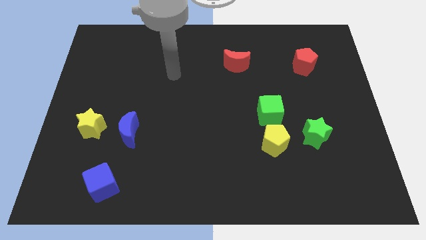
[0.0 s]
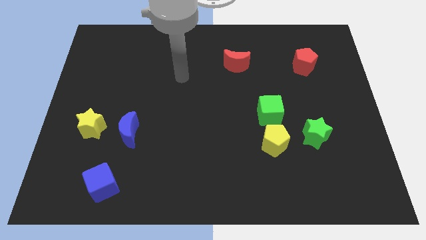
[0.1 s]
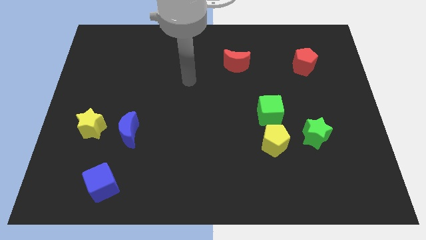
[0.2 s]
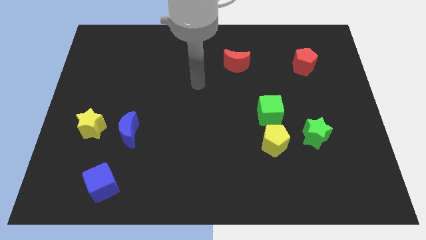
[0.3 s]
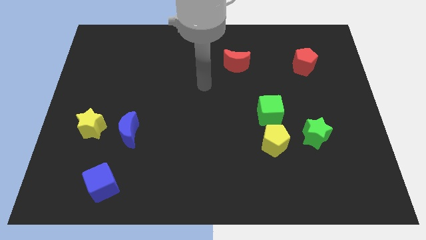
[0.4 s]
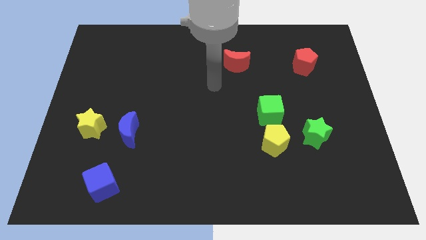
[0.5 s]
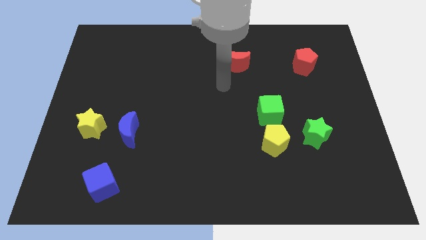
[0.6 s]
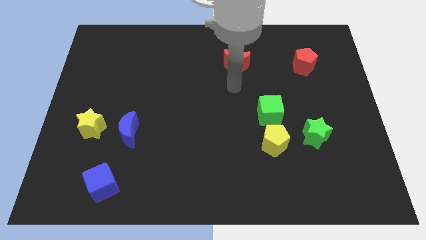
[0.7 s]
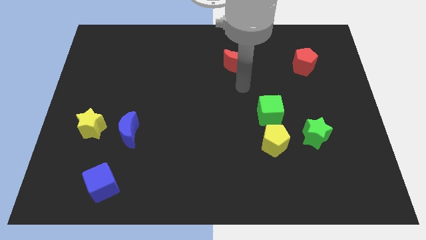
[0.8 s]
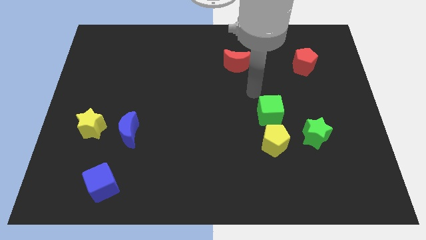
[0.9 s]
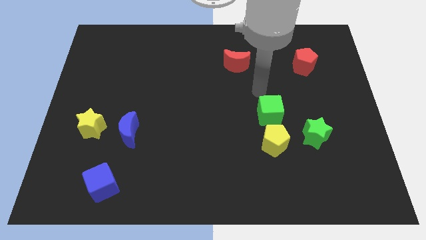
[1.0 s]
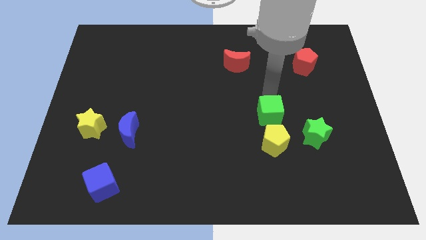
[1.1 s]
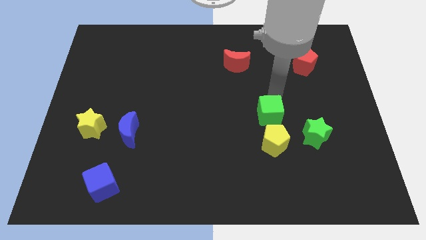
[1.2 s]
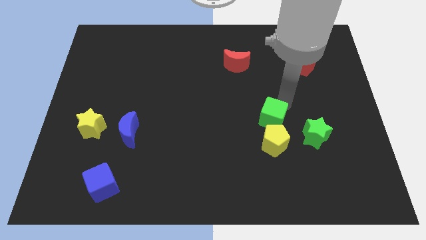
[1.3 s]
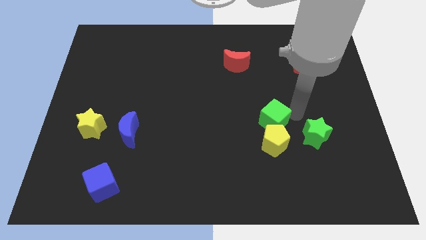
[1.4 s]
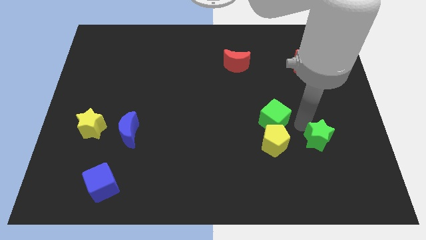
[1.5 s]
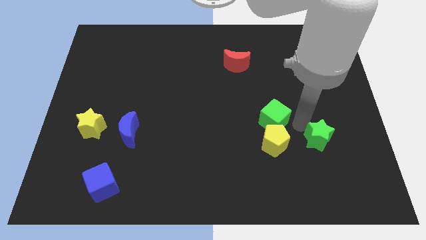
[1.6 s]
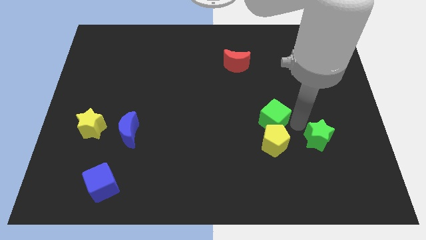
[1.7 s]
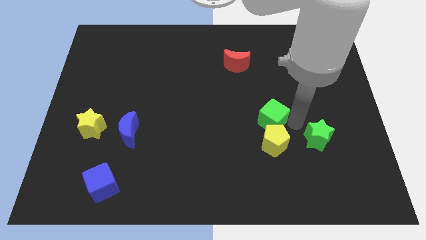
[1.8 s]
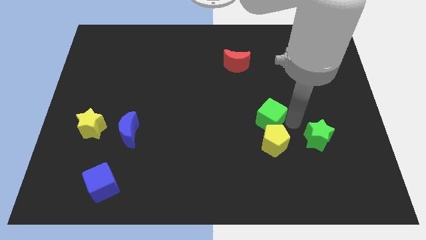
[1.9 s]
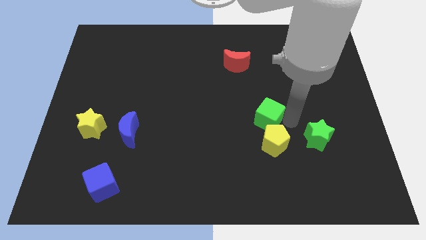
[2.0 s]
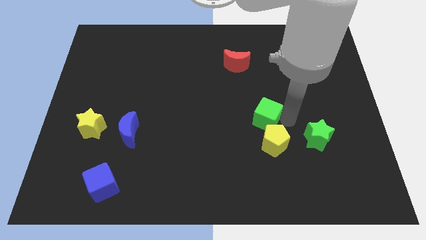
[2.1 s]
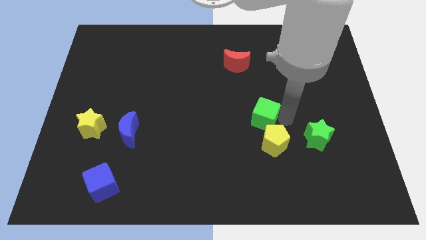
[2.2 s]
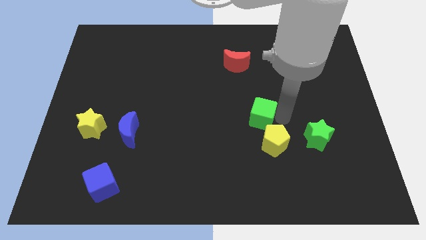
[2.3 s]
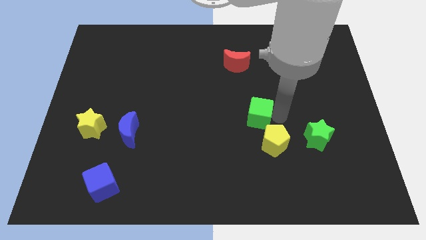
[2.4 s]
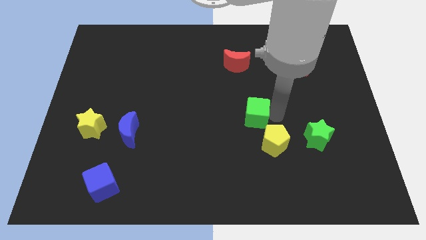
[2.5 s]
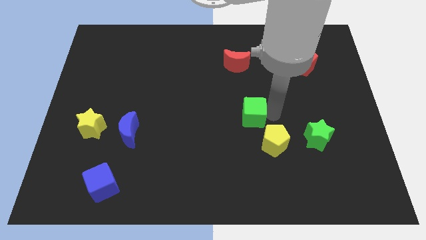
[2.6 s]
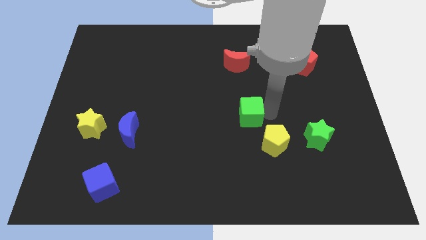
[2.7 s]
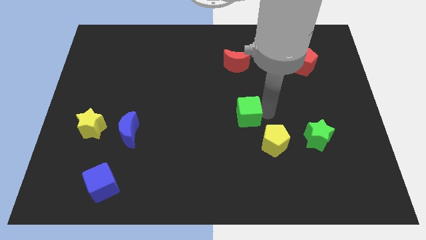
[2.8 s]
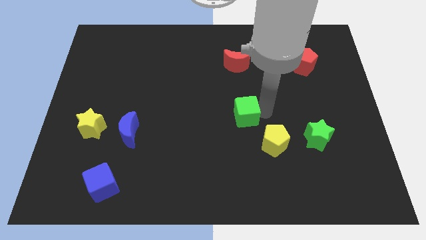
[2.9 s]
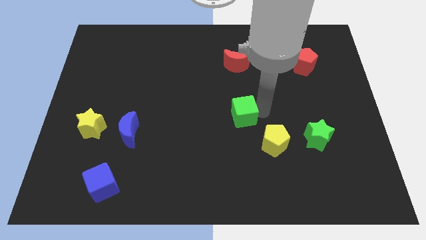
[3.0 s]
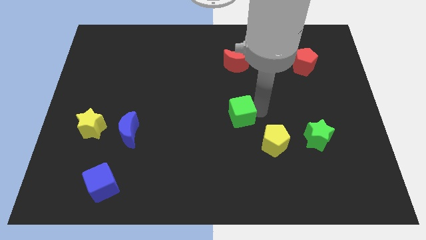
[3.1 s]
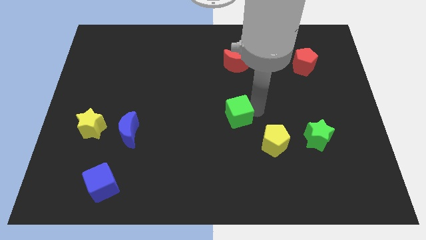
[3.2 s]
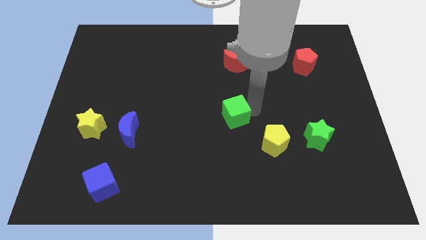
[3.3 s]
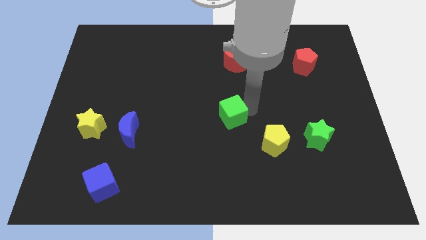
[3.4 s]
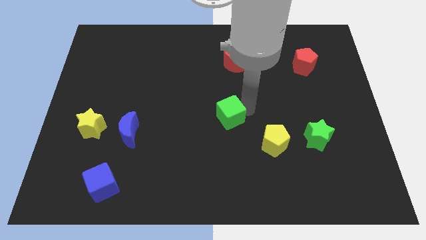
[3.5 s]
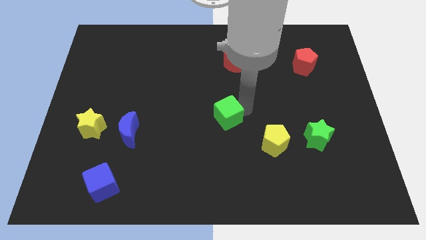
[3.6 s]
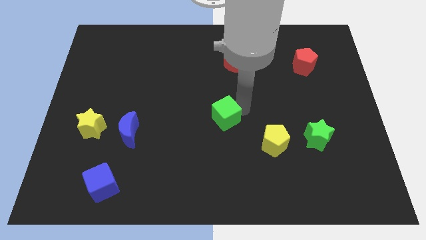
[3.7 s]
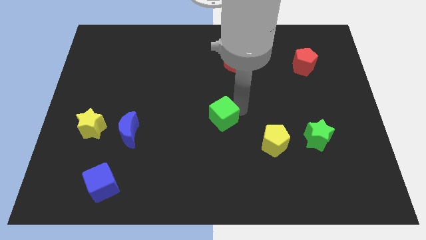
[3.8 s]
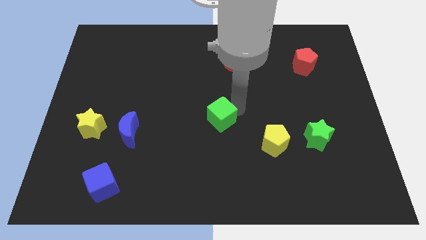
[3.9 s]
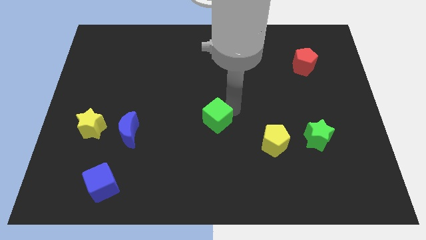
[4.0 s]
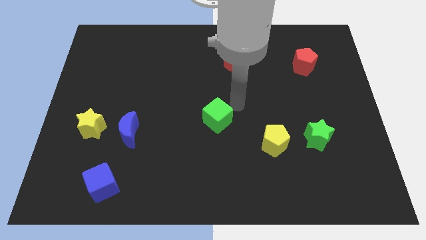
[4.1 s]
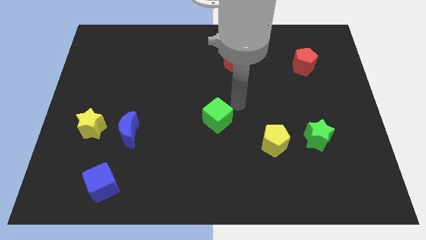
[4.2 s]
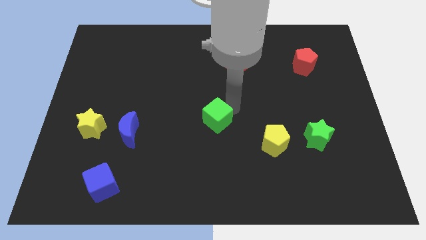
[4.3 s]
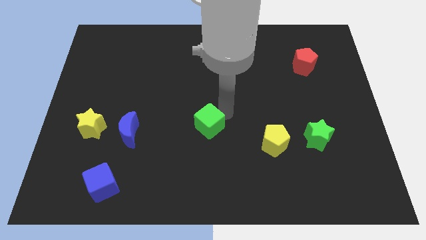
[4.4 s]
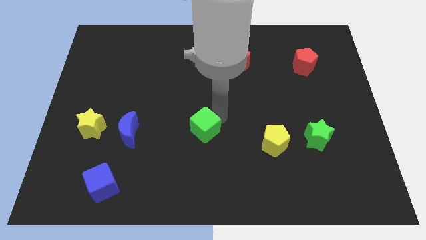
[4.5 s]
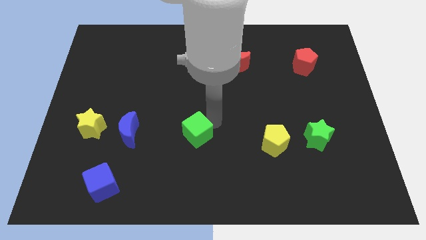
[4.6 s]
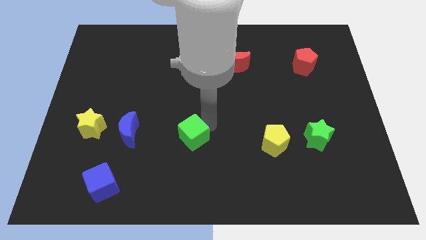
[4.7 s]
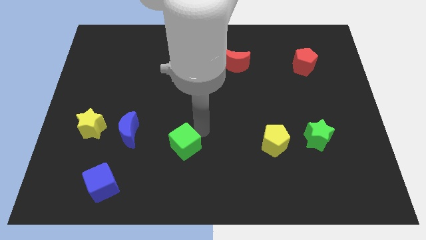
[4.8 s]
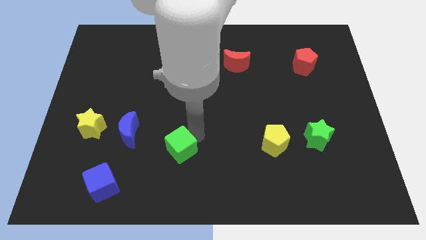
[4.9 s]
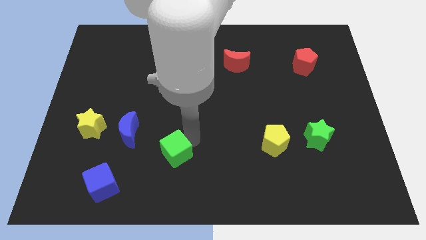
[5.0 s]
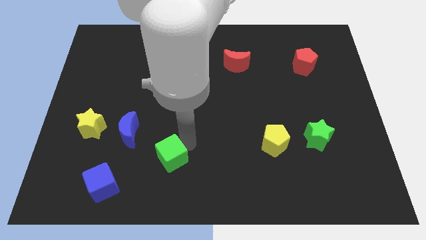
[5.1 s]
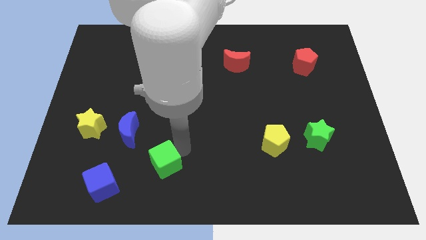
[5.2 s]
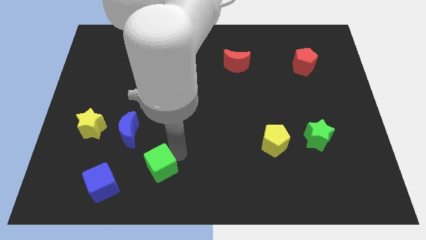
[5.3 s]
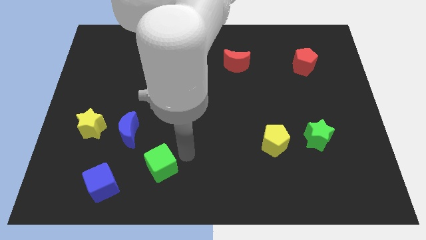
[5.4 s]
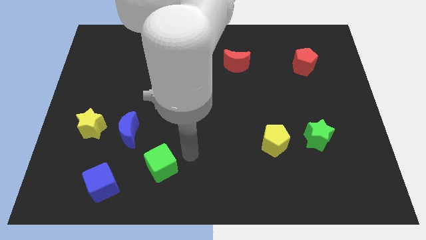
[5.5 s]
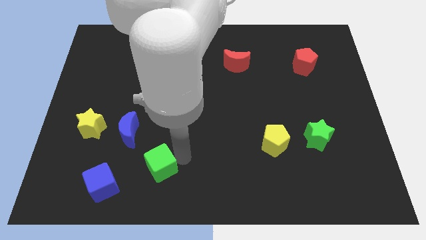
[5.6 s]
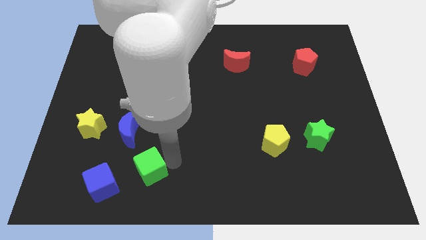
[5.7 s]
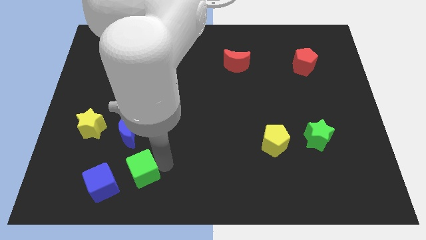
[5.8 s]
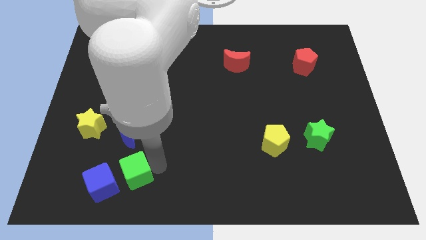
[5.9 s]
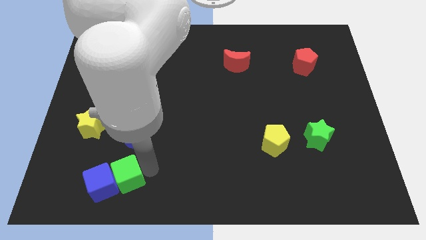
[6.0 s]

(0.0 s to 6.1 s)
move the green cube next to the blue cube

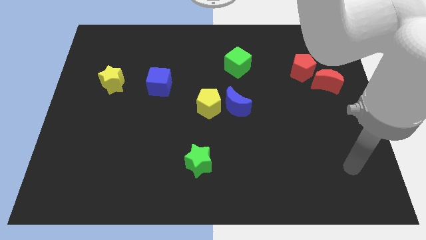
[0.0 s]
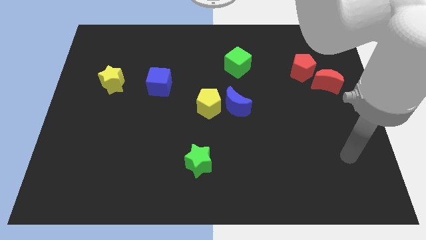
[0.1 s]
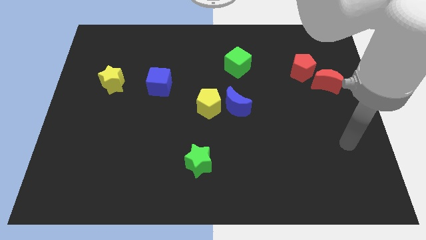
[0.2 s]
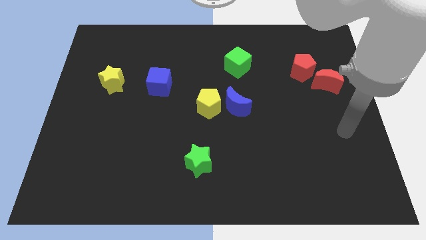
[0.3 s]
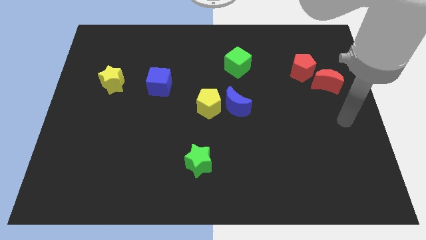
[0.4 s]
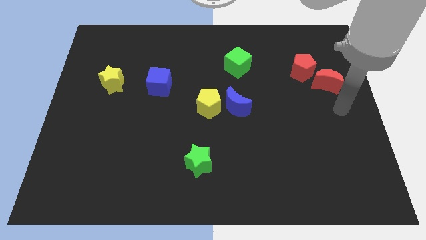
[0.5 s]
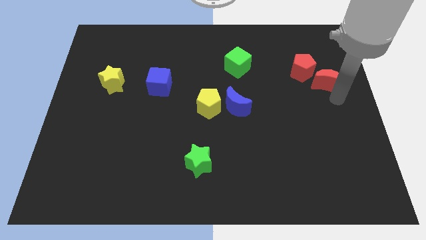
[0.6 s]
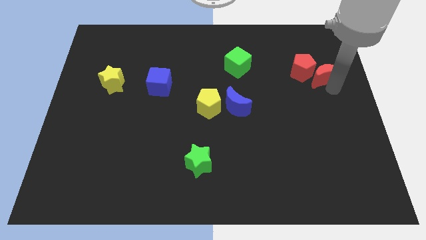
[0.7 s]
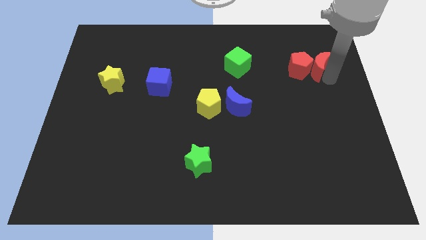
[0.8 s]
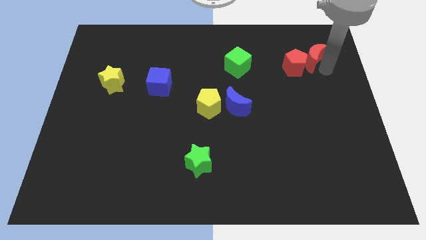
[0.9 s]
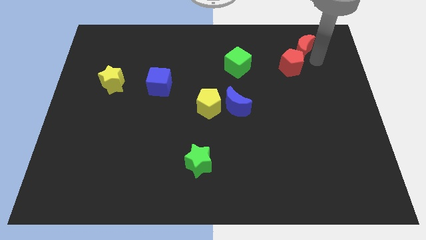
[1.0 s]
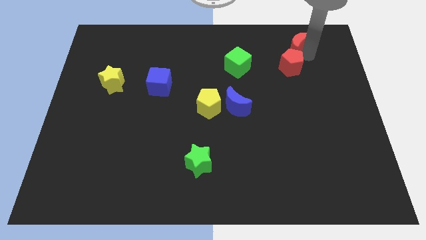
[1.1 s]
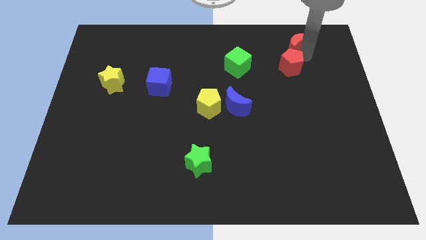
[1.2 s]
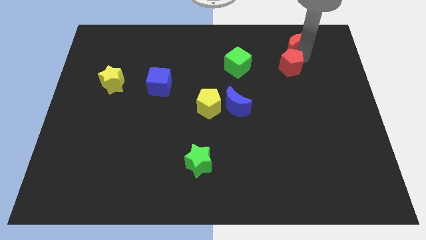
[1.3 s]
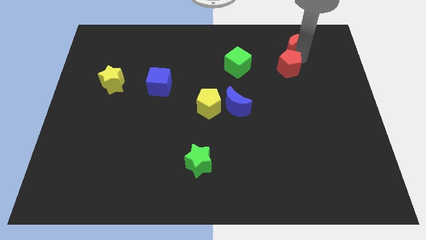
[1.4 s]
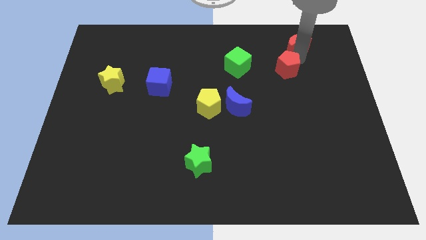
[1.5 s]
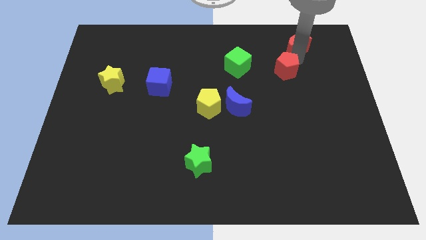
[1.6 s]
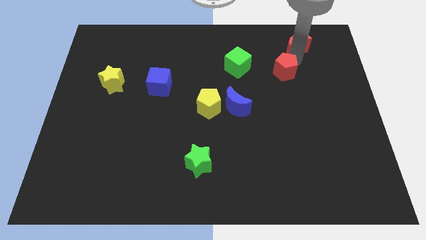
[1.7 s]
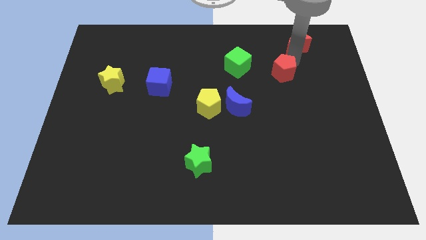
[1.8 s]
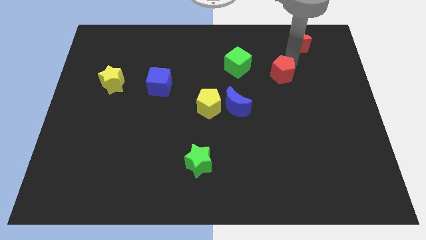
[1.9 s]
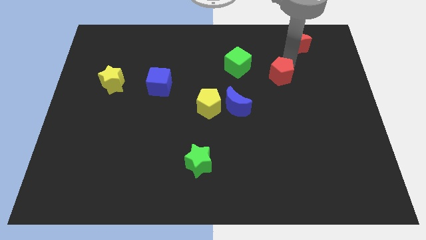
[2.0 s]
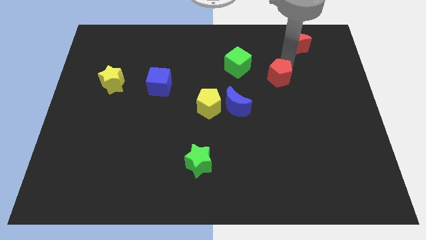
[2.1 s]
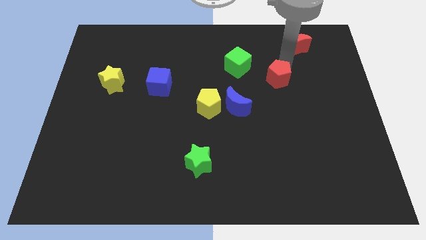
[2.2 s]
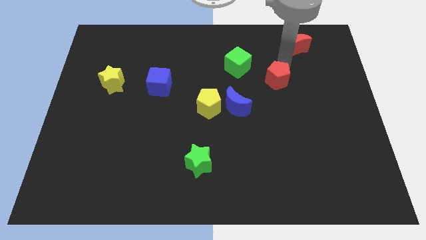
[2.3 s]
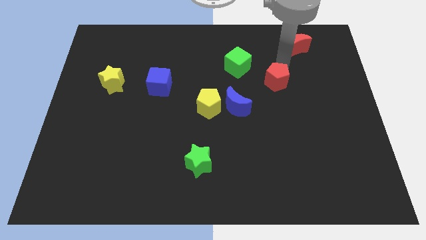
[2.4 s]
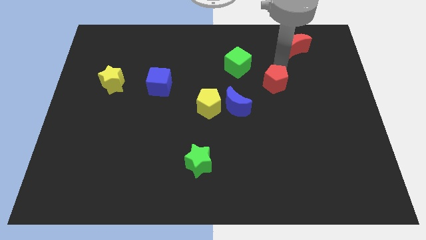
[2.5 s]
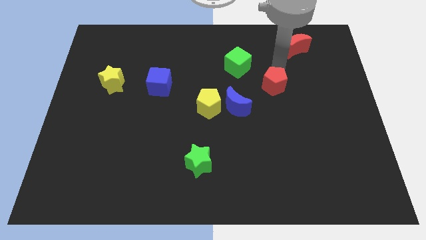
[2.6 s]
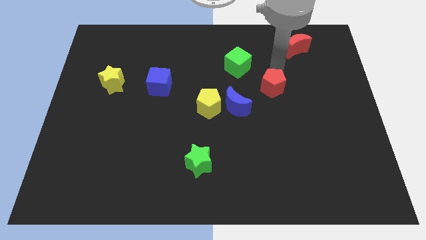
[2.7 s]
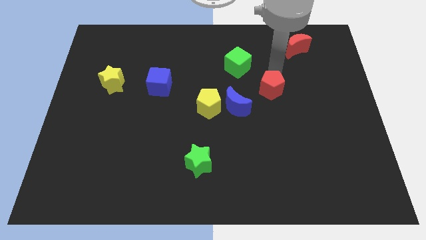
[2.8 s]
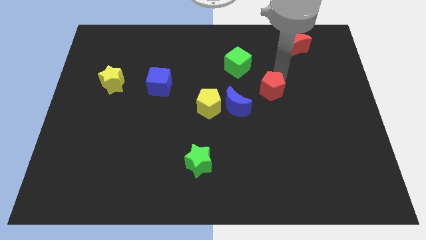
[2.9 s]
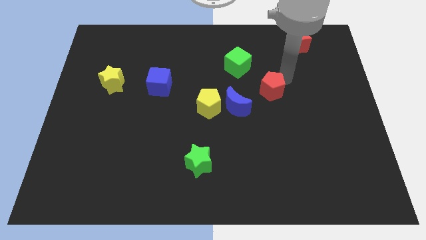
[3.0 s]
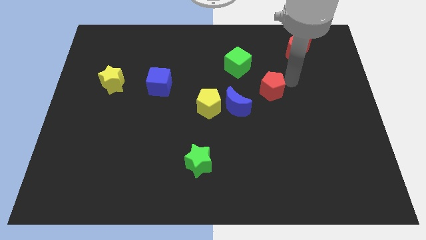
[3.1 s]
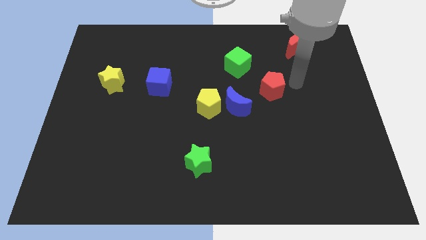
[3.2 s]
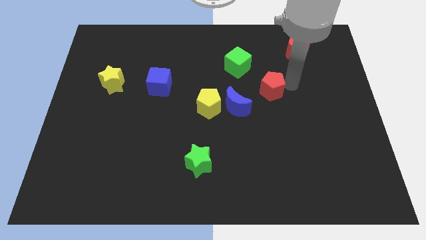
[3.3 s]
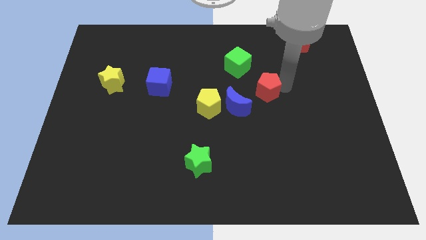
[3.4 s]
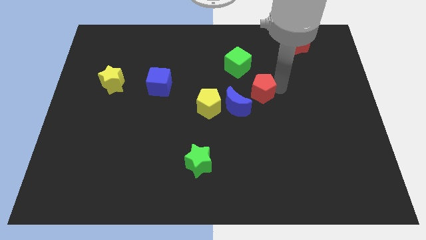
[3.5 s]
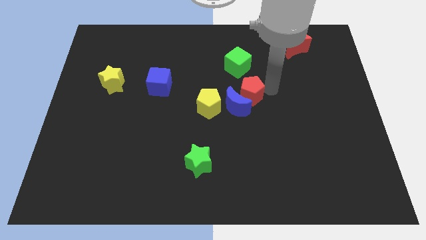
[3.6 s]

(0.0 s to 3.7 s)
push the red pentagon to the blue moon
